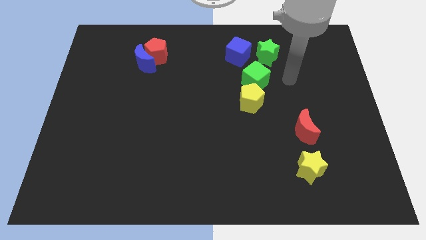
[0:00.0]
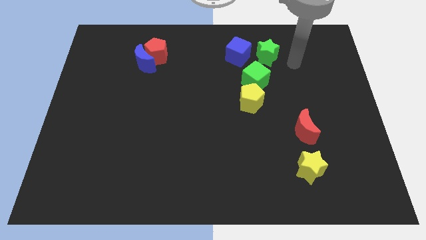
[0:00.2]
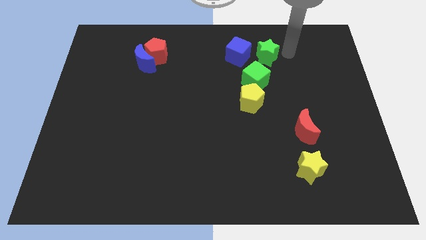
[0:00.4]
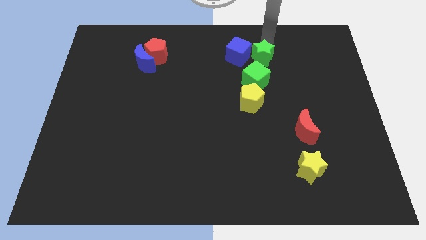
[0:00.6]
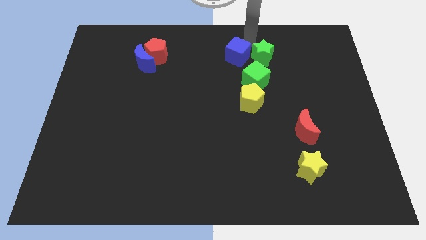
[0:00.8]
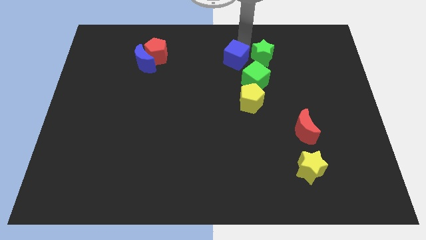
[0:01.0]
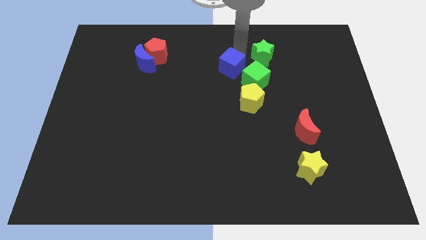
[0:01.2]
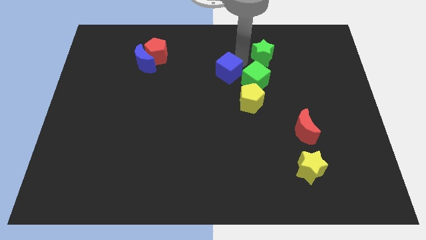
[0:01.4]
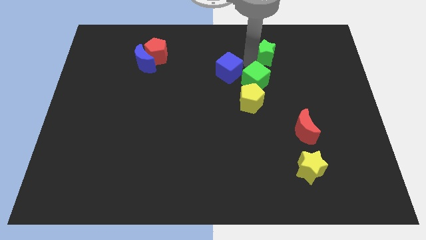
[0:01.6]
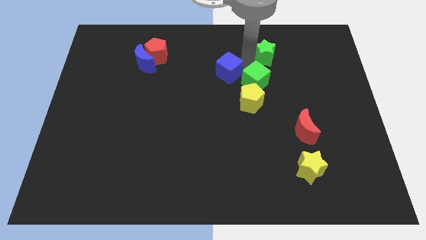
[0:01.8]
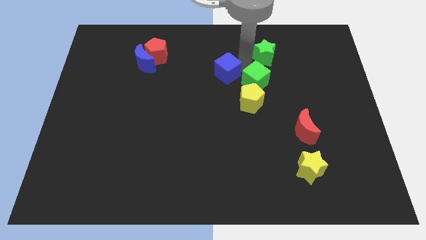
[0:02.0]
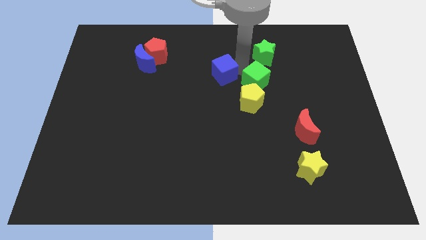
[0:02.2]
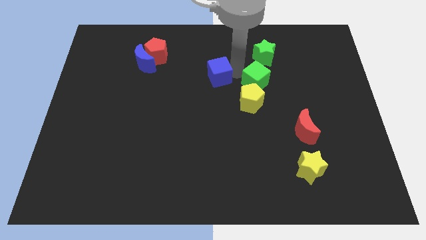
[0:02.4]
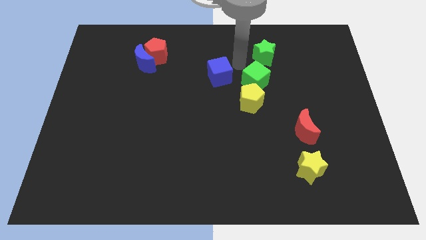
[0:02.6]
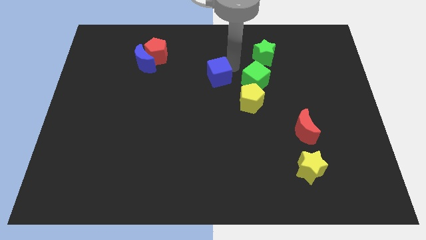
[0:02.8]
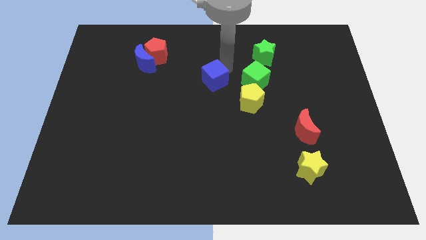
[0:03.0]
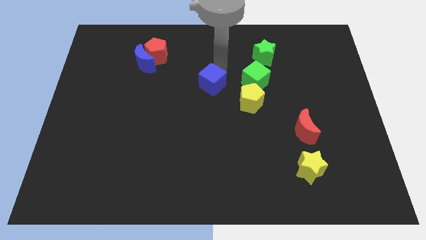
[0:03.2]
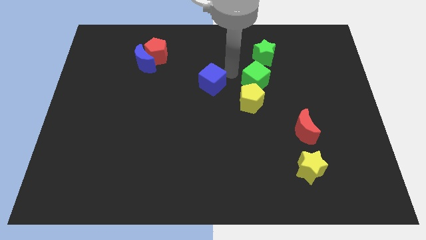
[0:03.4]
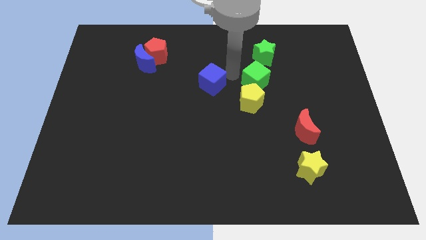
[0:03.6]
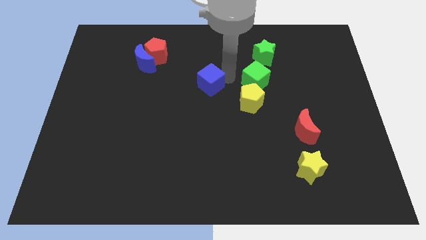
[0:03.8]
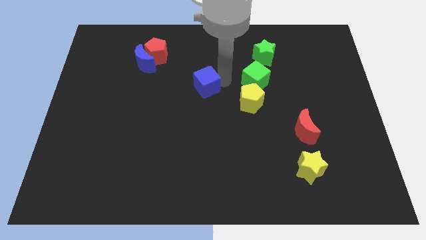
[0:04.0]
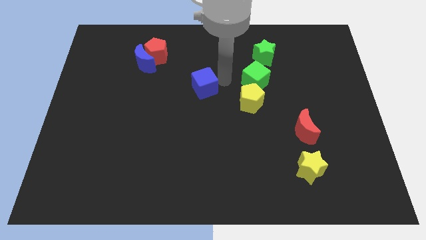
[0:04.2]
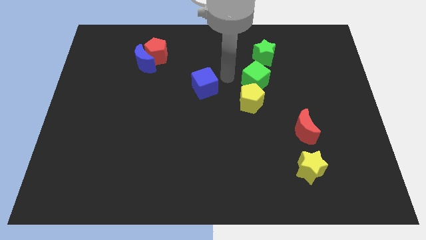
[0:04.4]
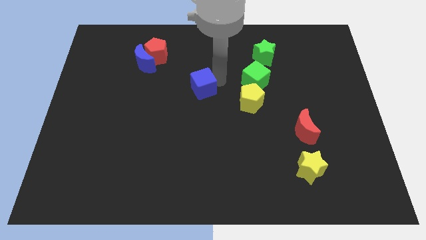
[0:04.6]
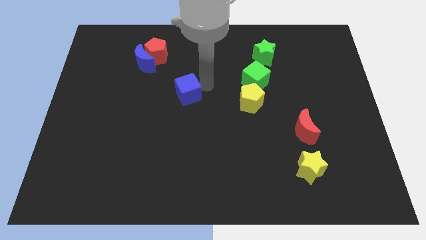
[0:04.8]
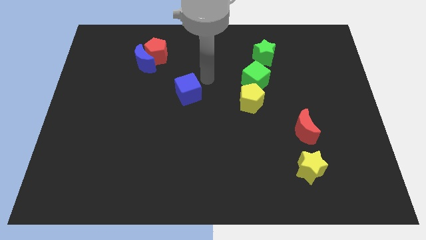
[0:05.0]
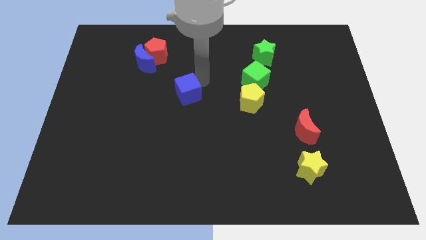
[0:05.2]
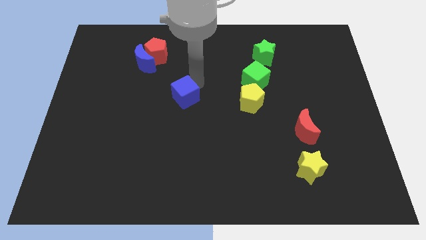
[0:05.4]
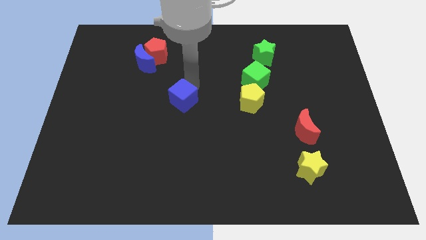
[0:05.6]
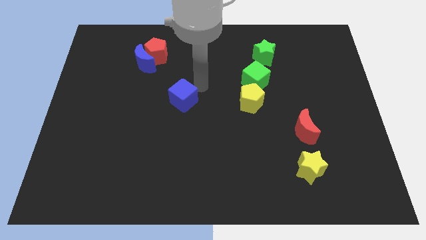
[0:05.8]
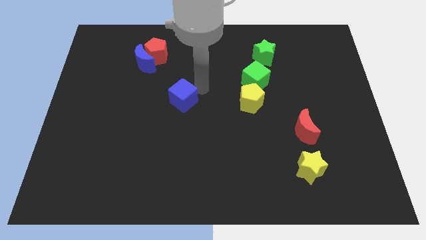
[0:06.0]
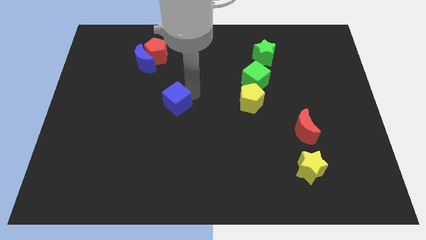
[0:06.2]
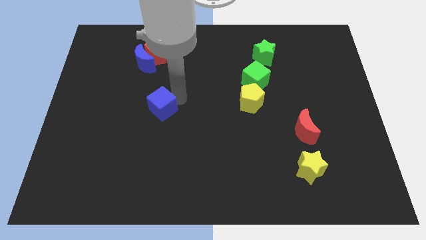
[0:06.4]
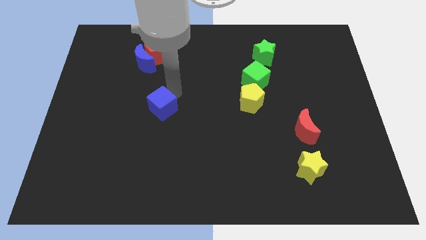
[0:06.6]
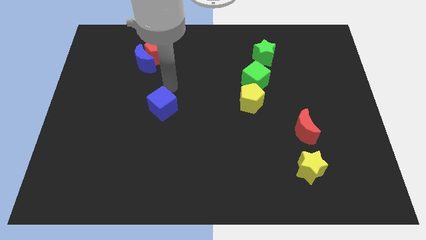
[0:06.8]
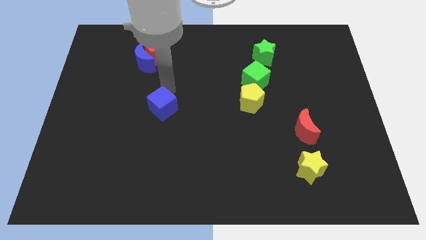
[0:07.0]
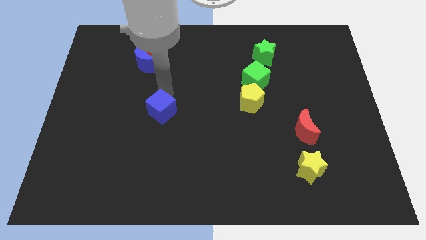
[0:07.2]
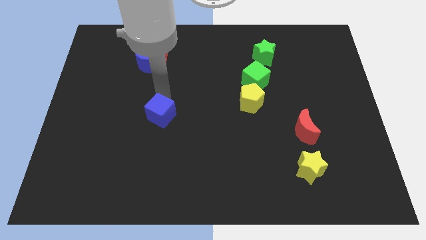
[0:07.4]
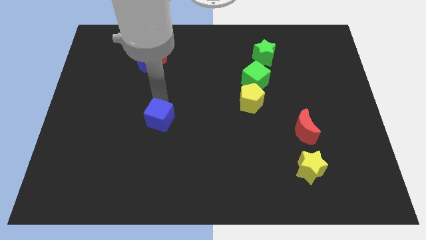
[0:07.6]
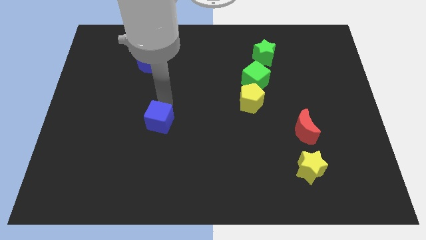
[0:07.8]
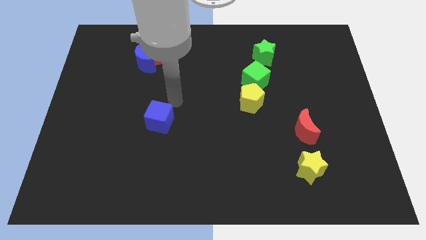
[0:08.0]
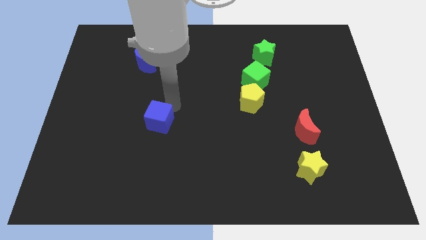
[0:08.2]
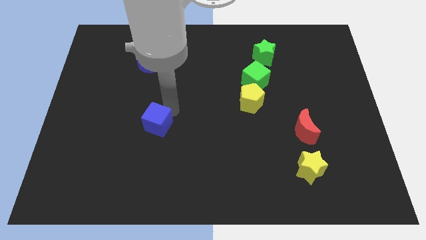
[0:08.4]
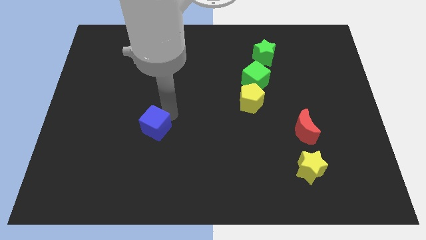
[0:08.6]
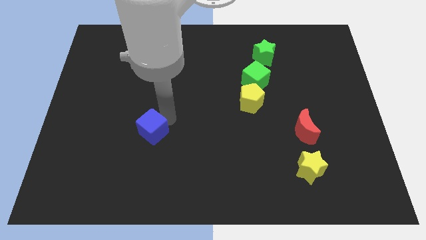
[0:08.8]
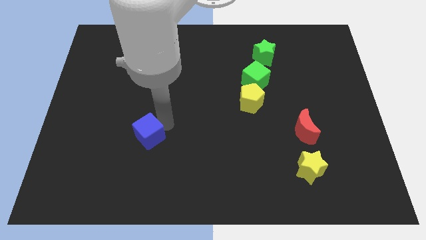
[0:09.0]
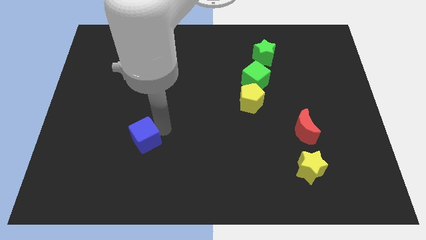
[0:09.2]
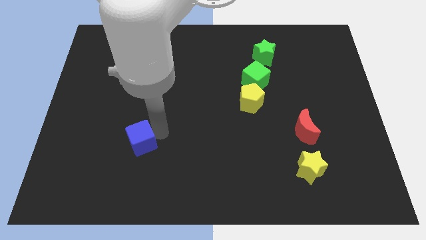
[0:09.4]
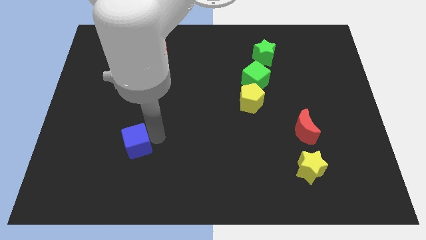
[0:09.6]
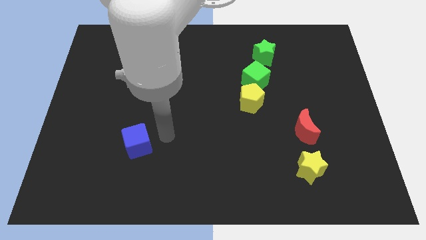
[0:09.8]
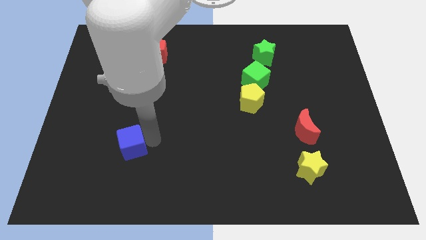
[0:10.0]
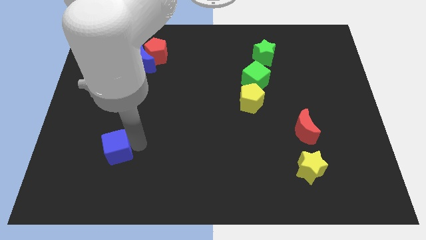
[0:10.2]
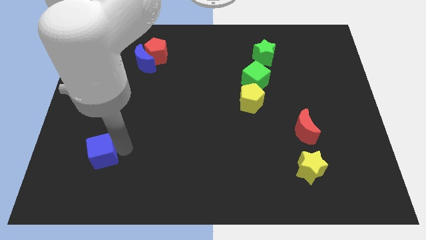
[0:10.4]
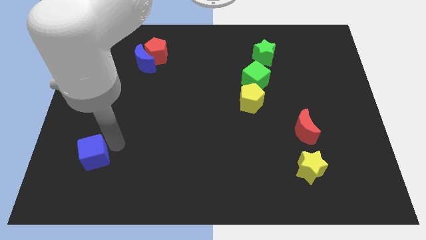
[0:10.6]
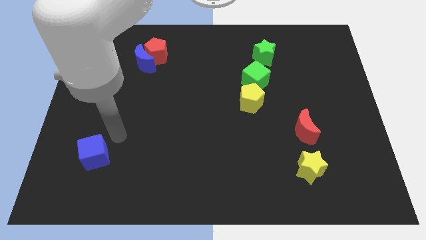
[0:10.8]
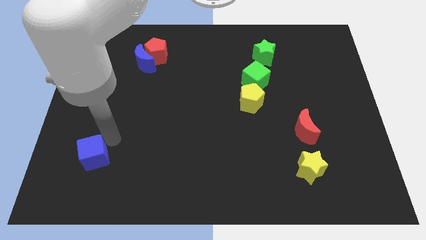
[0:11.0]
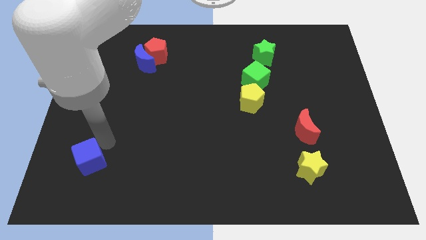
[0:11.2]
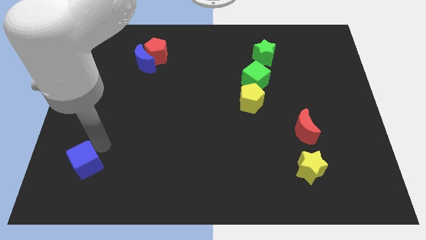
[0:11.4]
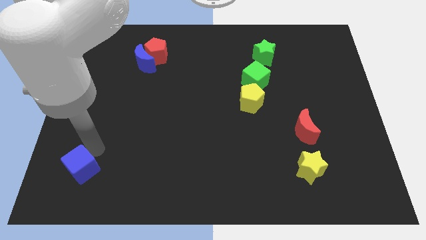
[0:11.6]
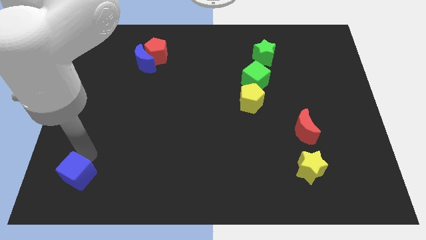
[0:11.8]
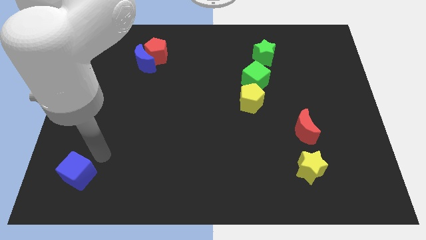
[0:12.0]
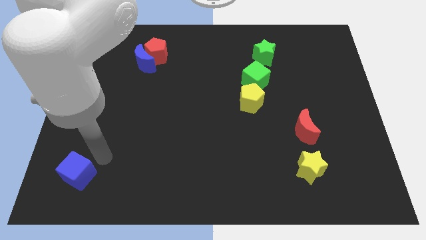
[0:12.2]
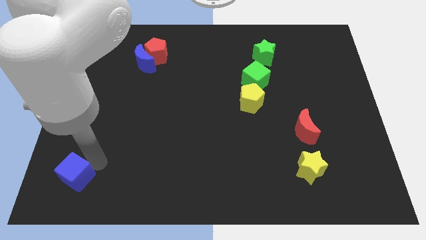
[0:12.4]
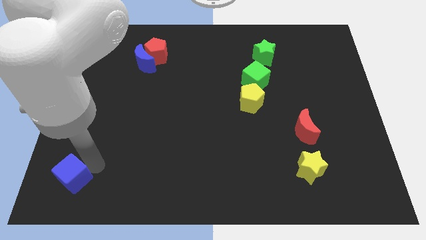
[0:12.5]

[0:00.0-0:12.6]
put the blue cube to the lower left corner

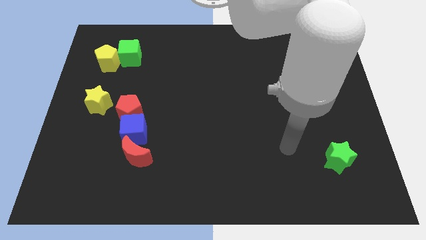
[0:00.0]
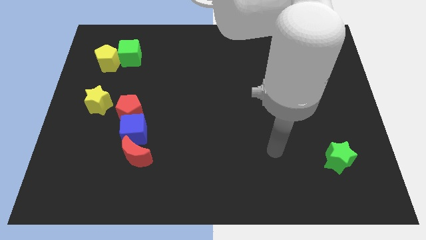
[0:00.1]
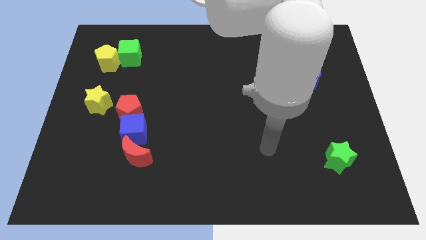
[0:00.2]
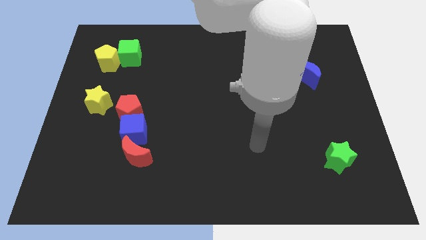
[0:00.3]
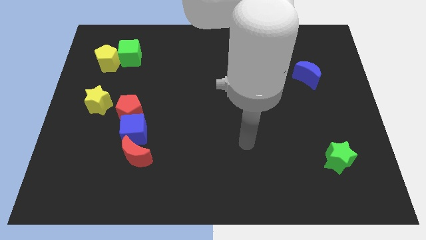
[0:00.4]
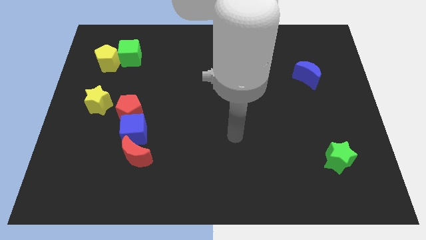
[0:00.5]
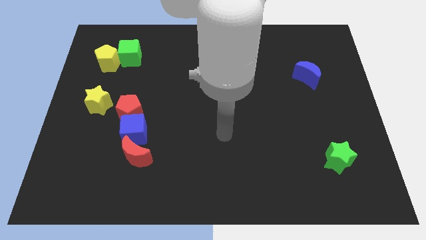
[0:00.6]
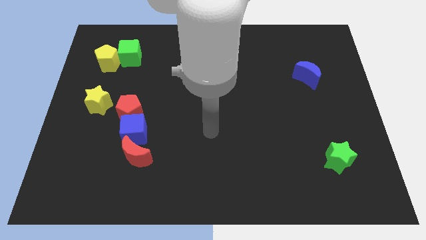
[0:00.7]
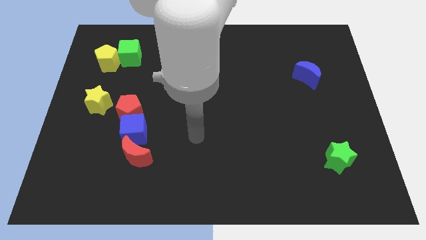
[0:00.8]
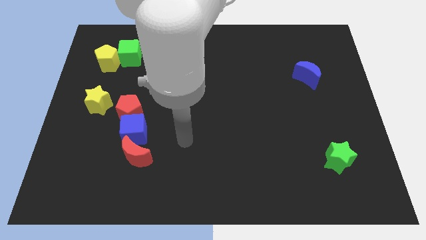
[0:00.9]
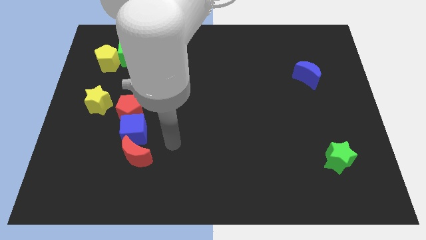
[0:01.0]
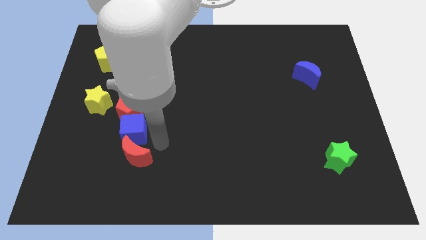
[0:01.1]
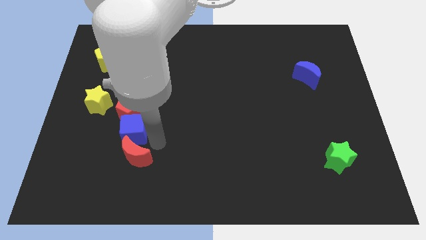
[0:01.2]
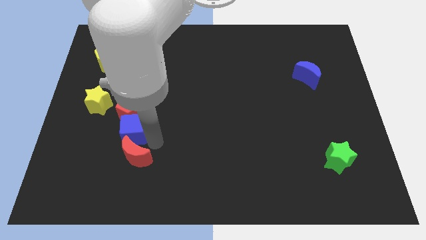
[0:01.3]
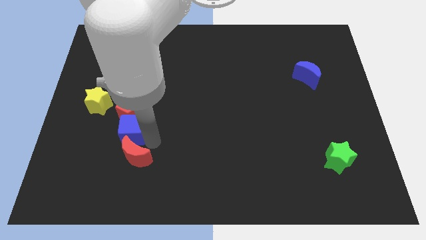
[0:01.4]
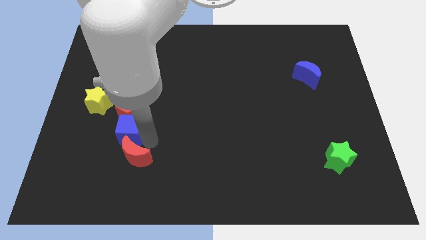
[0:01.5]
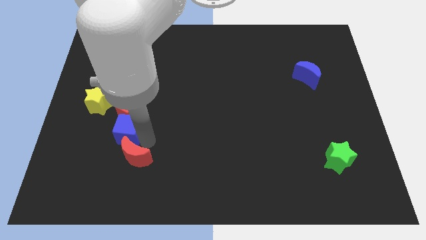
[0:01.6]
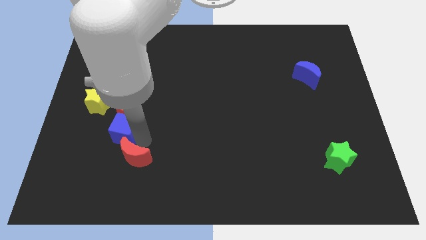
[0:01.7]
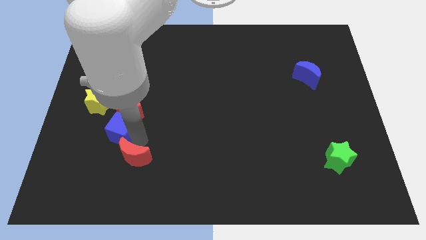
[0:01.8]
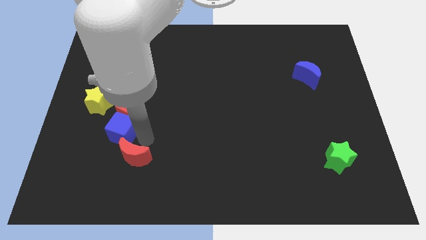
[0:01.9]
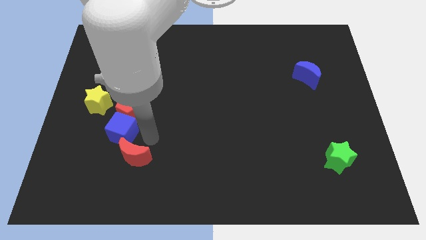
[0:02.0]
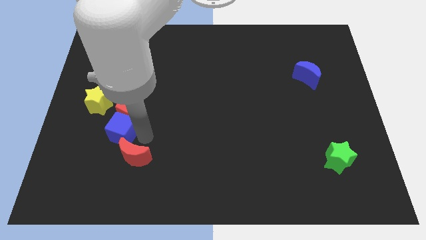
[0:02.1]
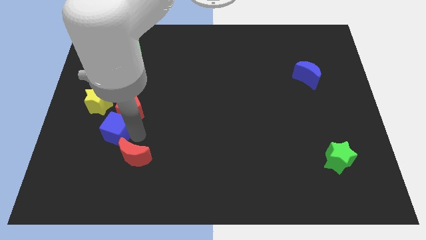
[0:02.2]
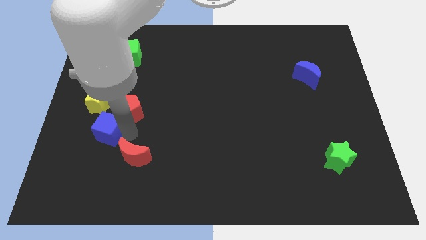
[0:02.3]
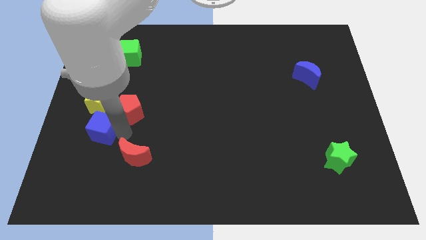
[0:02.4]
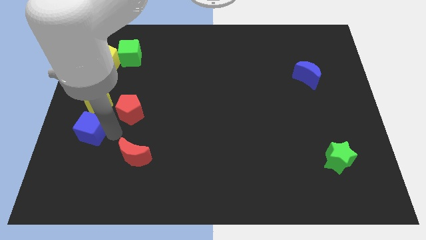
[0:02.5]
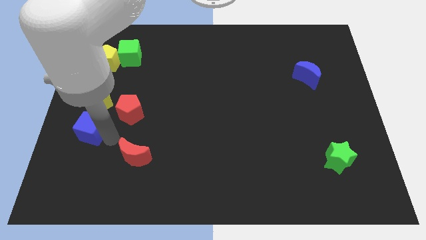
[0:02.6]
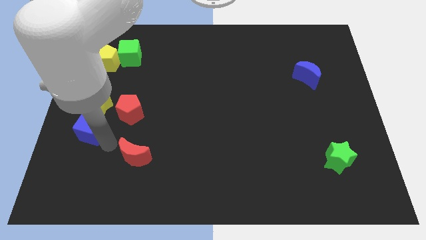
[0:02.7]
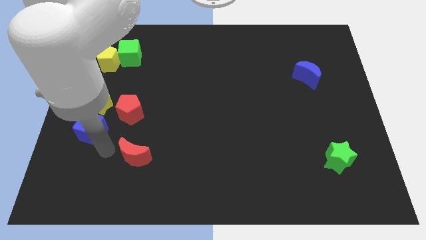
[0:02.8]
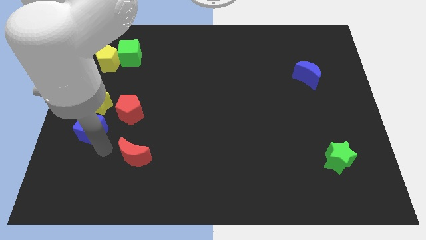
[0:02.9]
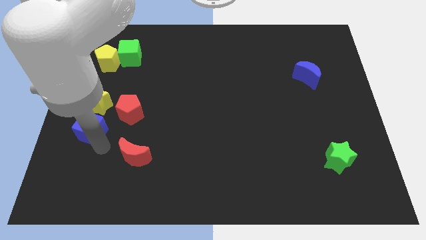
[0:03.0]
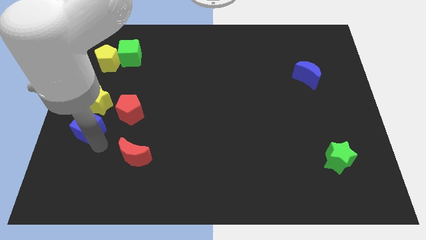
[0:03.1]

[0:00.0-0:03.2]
push the blue cube to the left side of the board
